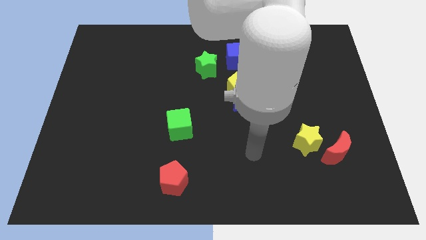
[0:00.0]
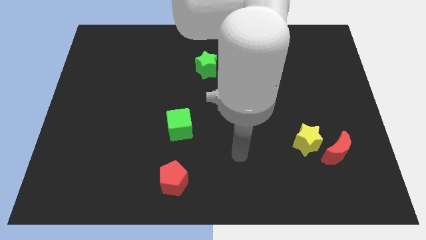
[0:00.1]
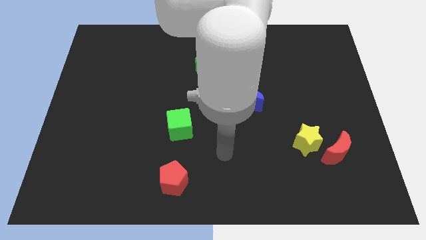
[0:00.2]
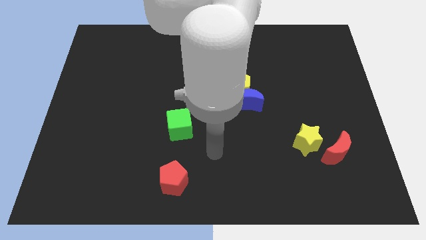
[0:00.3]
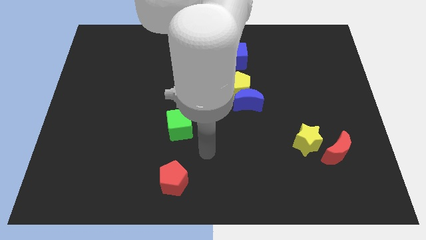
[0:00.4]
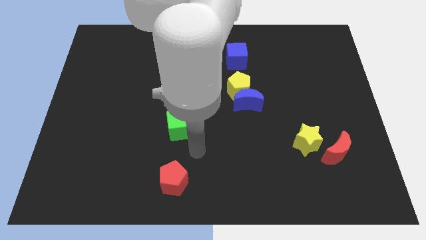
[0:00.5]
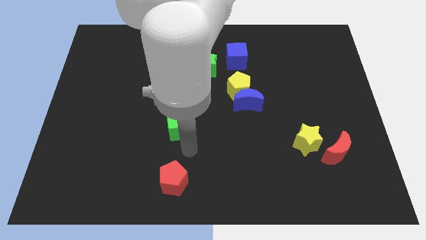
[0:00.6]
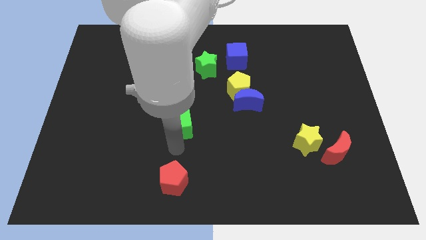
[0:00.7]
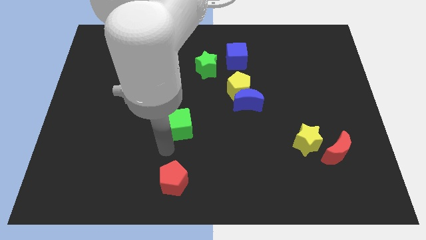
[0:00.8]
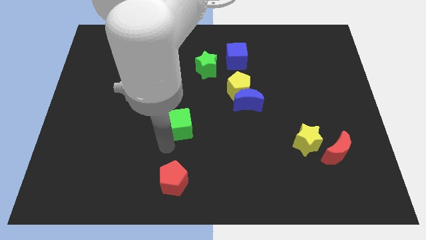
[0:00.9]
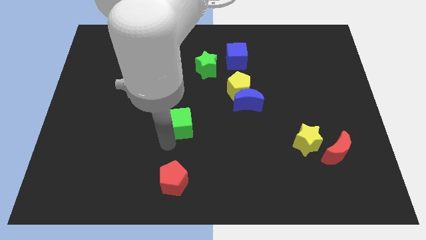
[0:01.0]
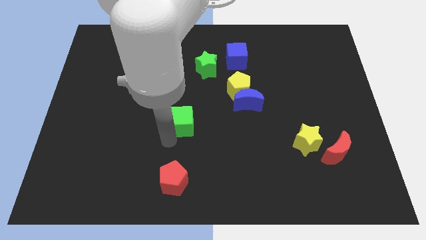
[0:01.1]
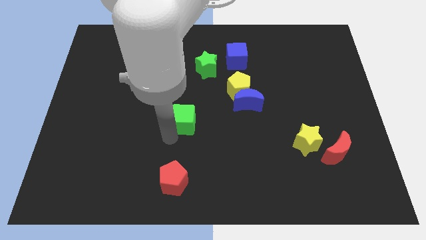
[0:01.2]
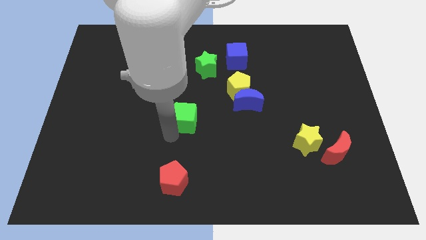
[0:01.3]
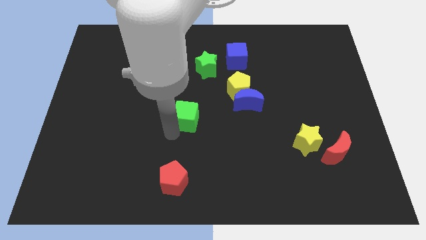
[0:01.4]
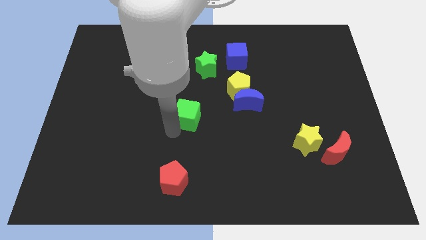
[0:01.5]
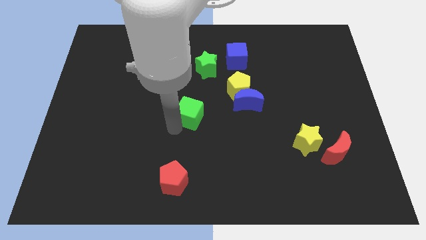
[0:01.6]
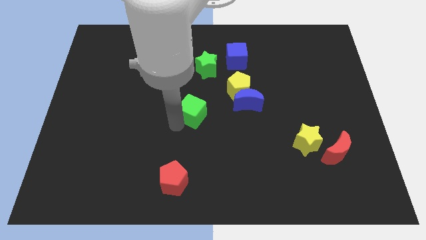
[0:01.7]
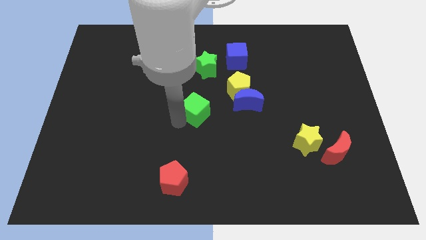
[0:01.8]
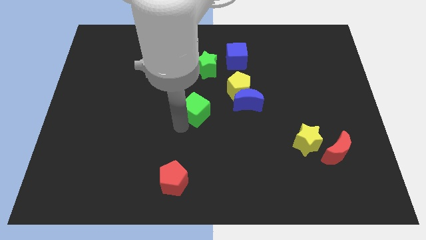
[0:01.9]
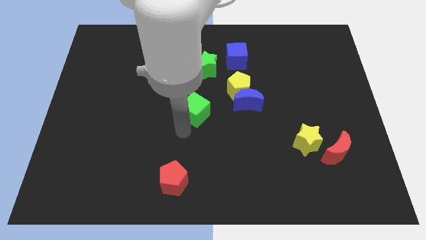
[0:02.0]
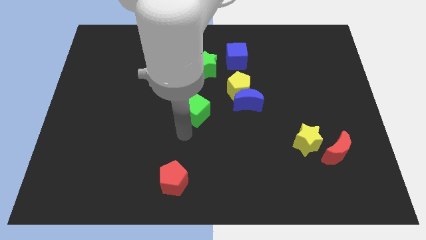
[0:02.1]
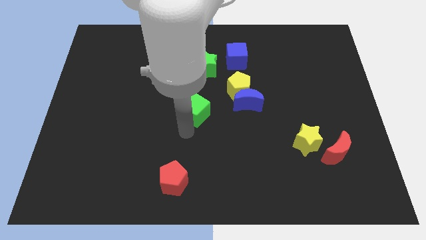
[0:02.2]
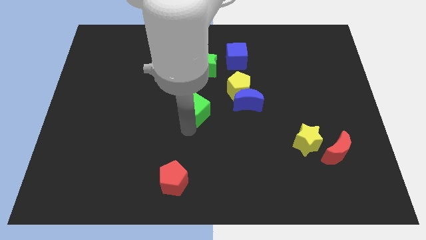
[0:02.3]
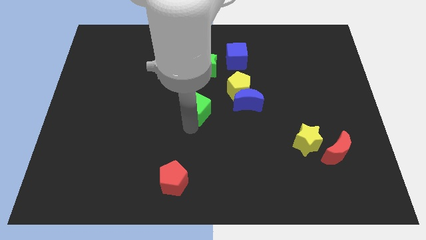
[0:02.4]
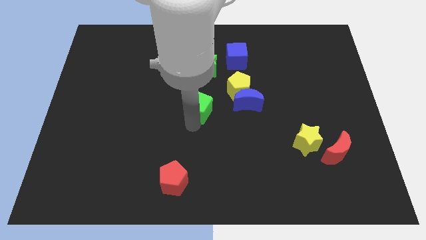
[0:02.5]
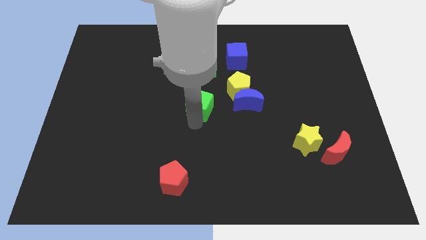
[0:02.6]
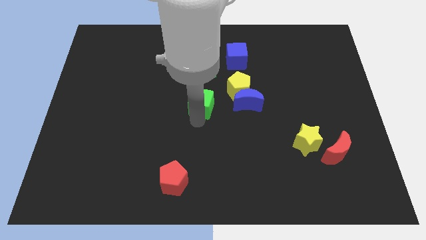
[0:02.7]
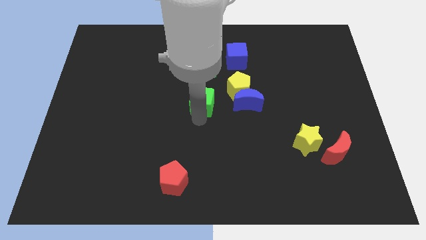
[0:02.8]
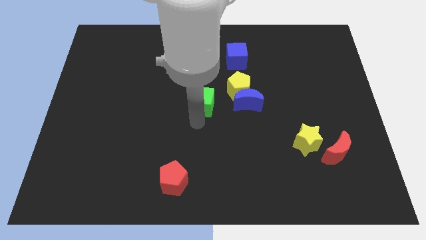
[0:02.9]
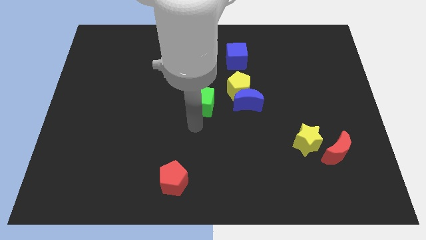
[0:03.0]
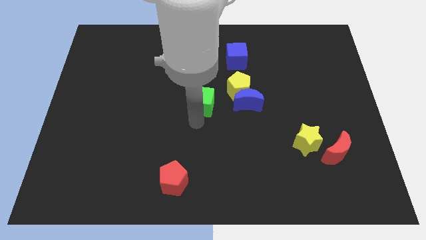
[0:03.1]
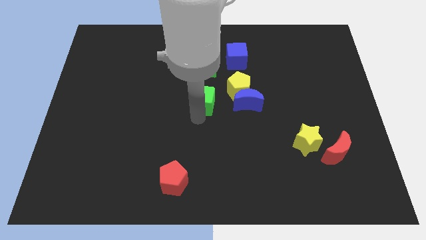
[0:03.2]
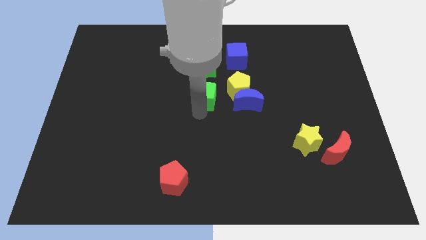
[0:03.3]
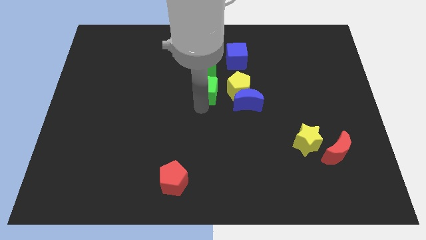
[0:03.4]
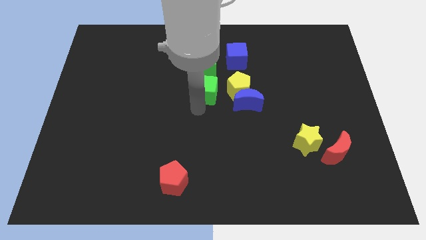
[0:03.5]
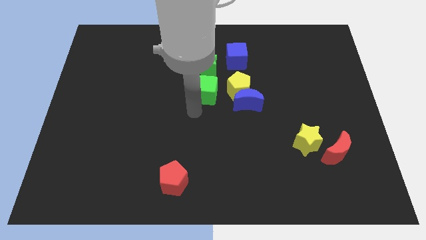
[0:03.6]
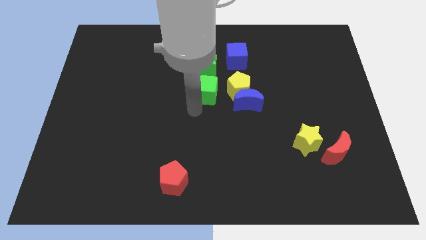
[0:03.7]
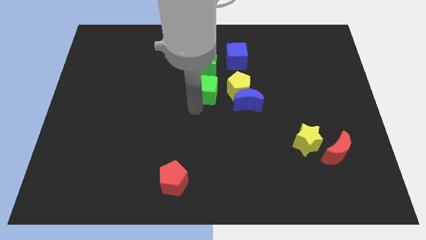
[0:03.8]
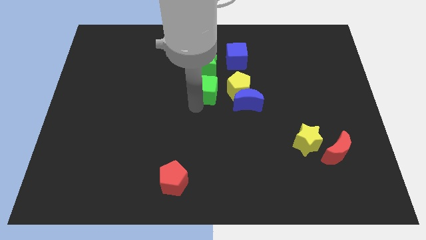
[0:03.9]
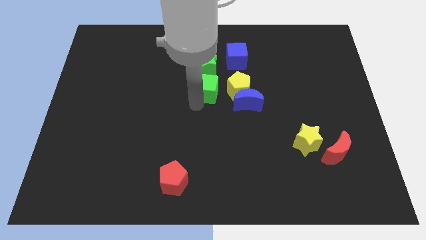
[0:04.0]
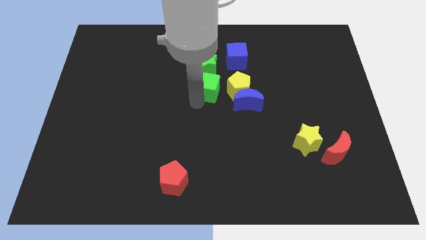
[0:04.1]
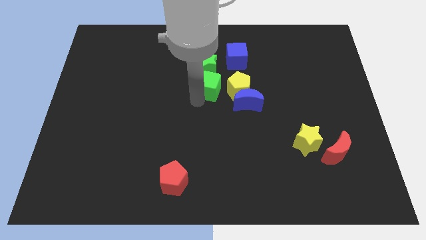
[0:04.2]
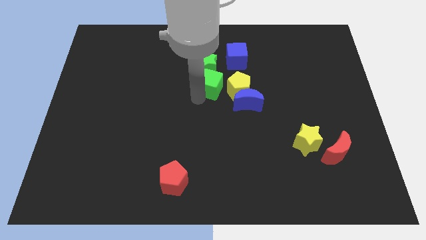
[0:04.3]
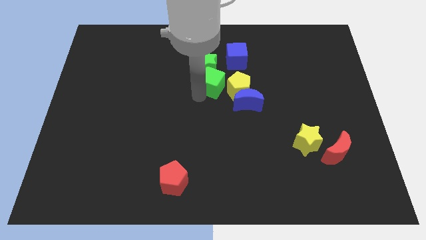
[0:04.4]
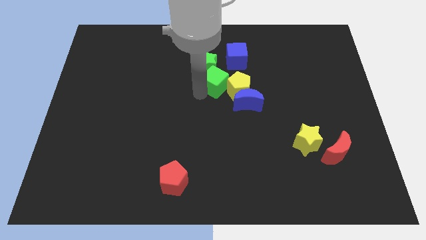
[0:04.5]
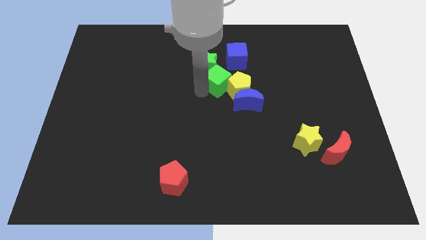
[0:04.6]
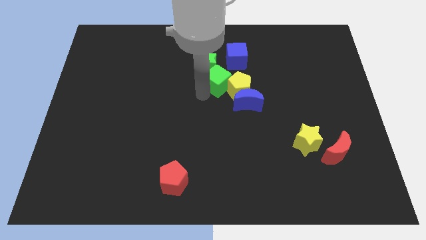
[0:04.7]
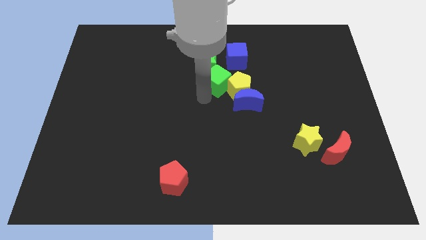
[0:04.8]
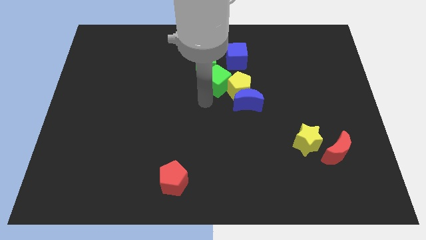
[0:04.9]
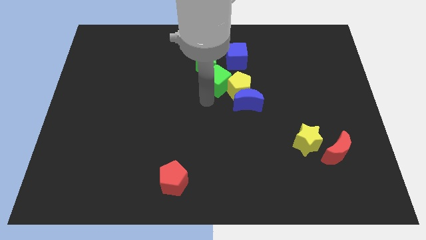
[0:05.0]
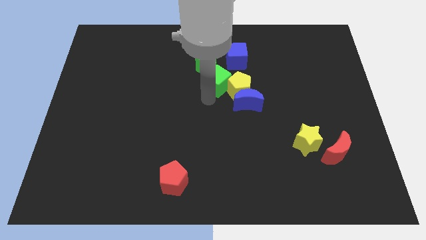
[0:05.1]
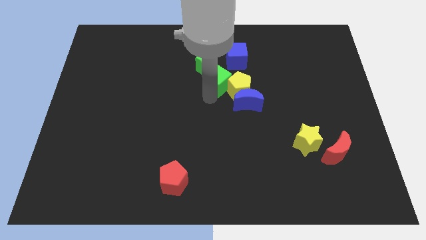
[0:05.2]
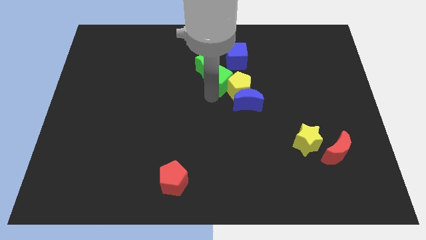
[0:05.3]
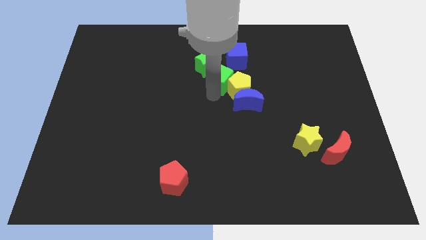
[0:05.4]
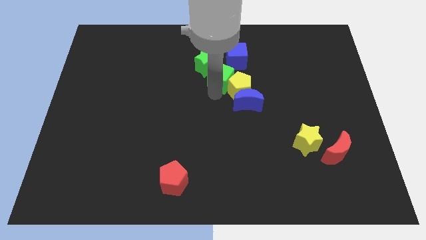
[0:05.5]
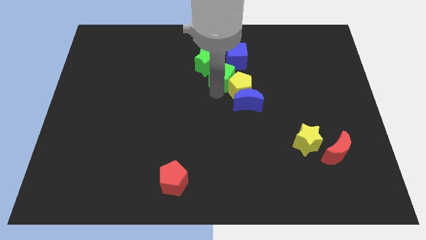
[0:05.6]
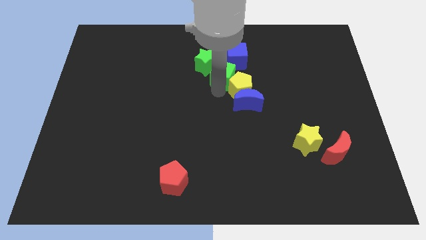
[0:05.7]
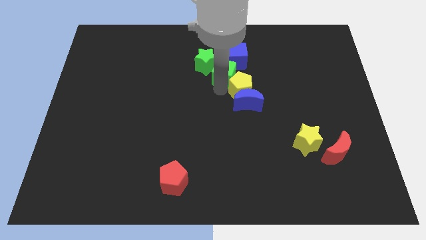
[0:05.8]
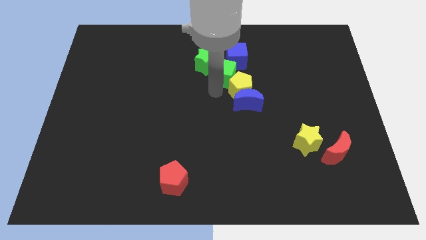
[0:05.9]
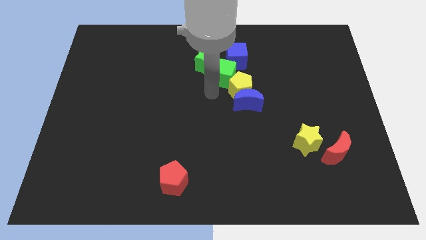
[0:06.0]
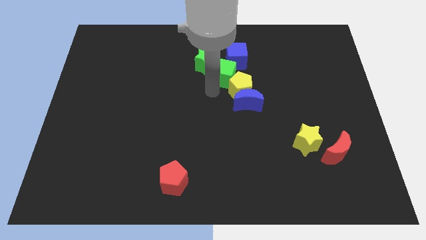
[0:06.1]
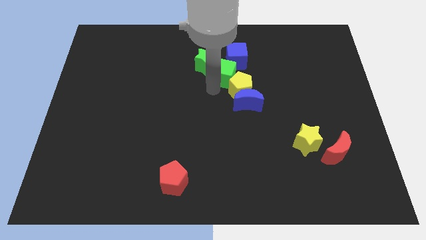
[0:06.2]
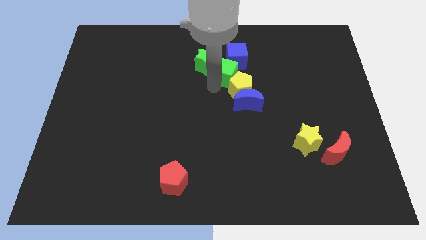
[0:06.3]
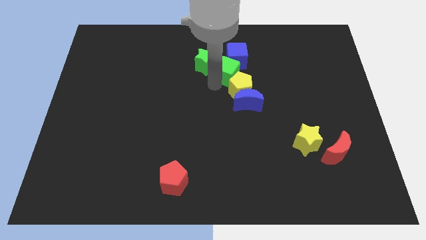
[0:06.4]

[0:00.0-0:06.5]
slide the green cube towards the blue cube
